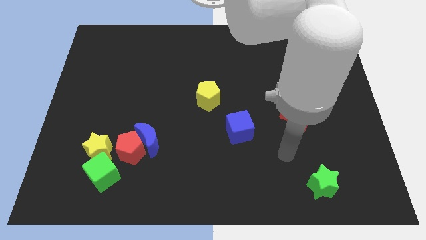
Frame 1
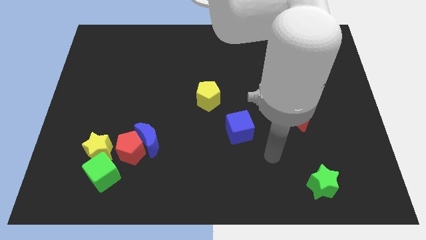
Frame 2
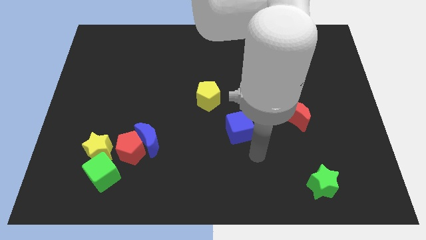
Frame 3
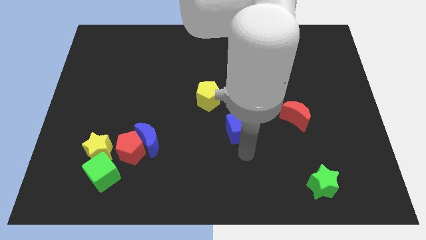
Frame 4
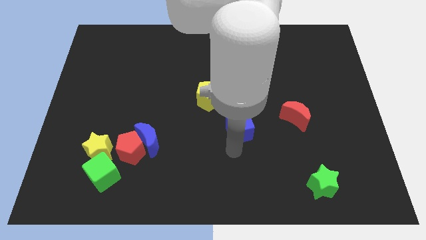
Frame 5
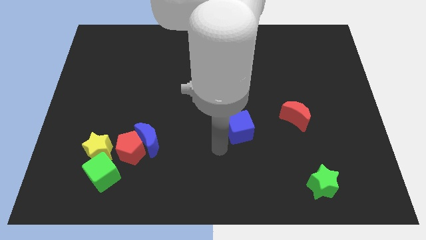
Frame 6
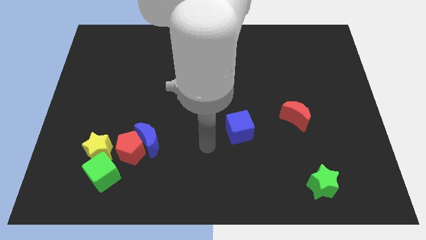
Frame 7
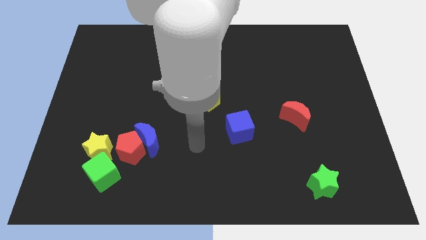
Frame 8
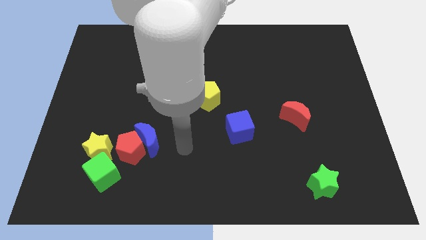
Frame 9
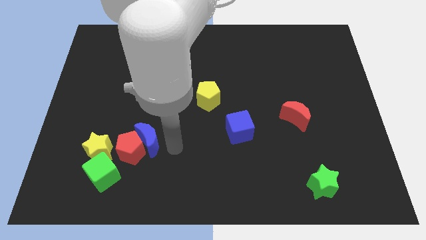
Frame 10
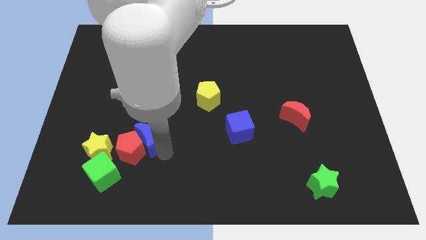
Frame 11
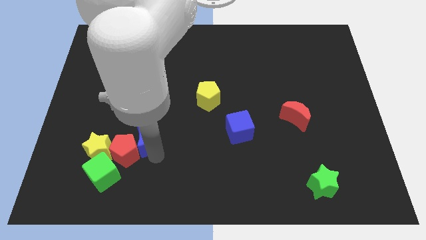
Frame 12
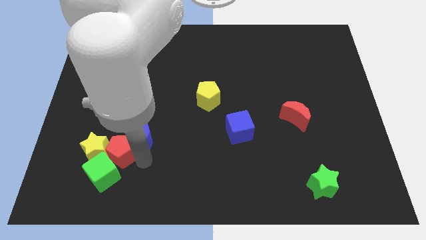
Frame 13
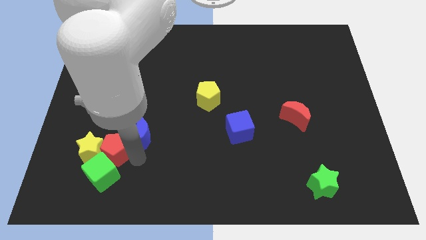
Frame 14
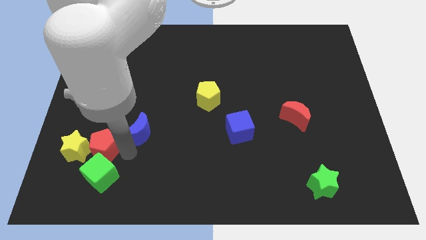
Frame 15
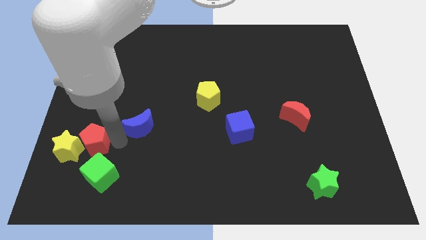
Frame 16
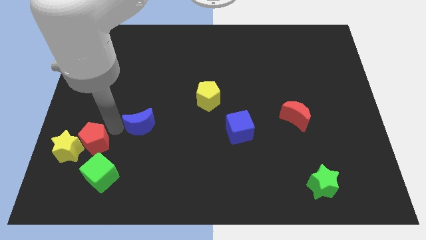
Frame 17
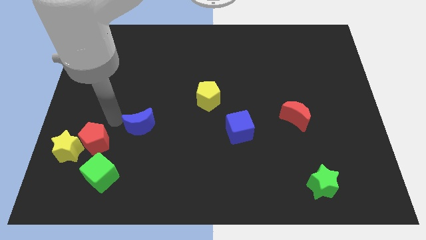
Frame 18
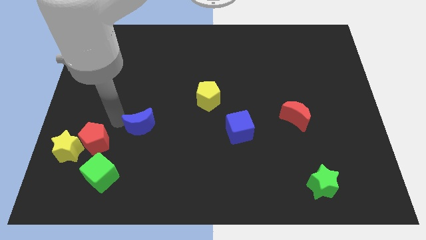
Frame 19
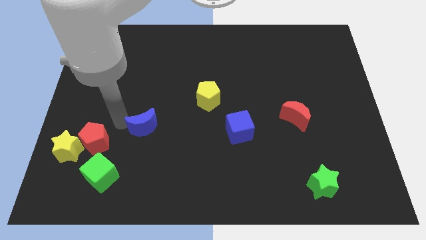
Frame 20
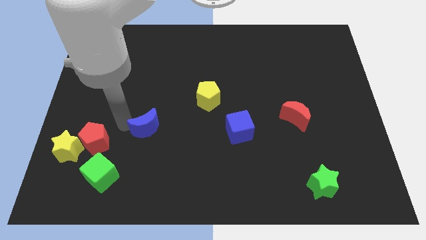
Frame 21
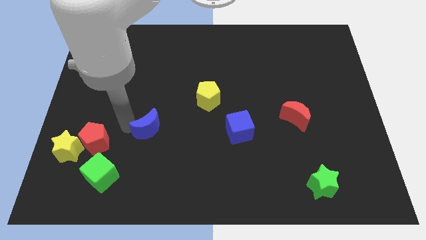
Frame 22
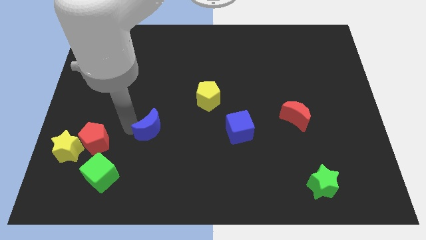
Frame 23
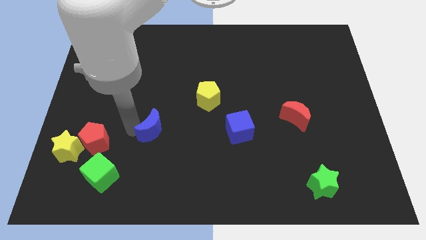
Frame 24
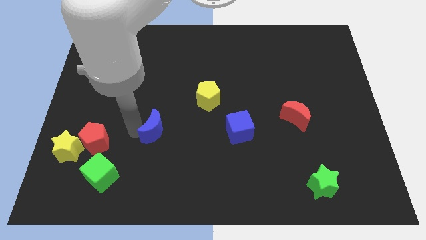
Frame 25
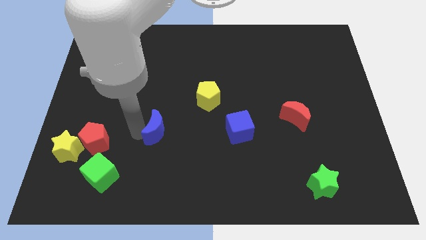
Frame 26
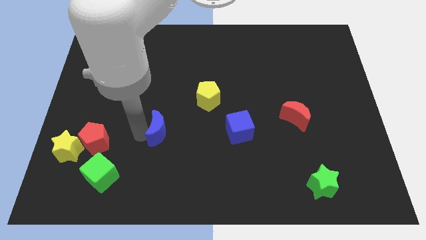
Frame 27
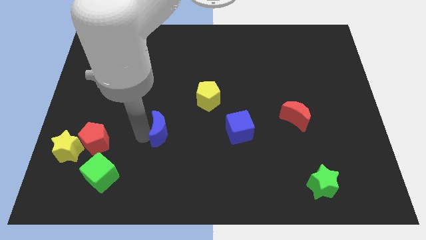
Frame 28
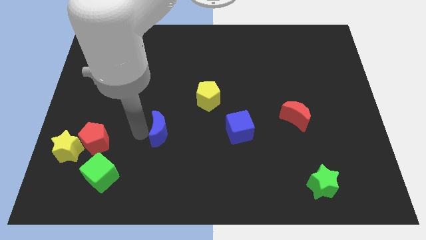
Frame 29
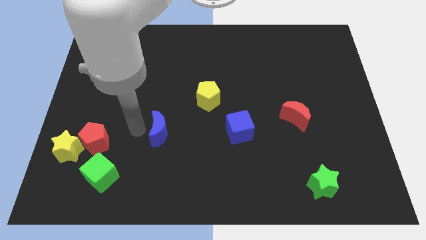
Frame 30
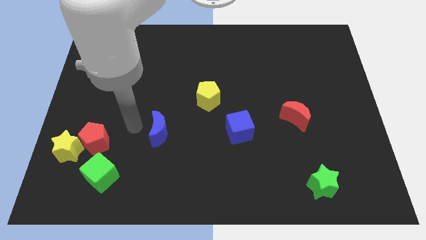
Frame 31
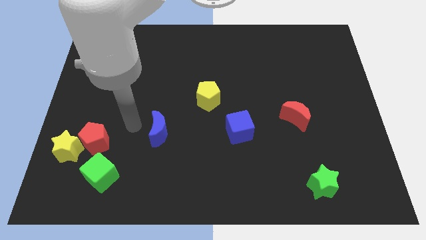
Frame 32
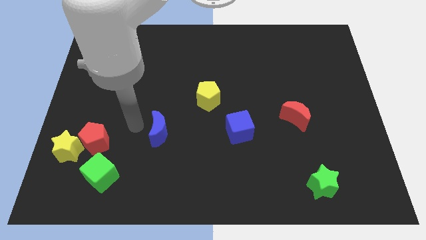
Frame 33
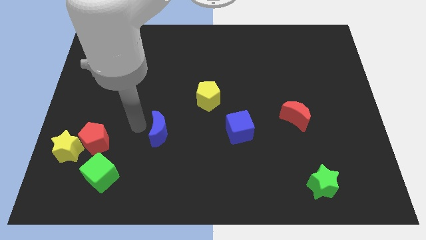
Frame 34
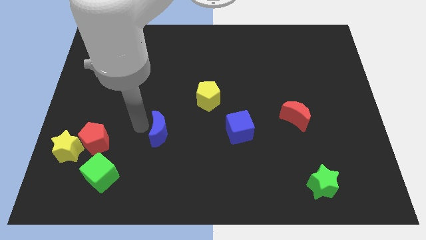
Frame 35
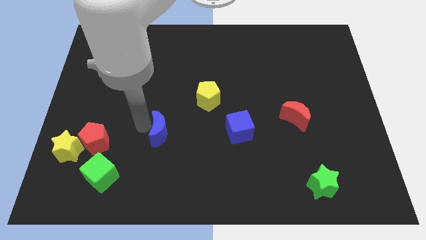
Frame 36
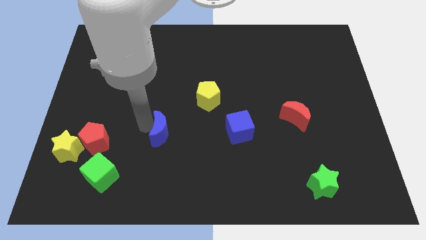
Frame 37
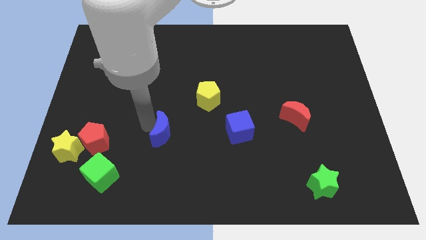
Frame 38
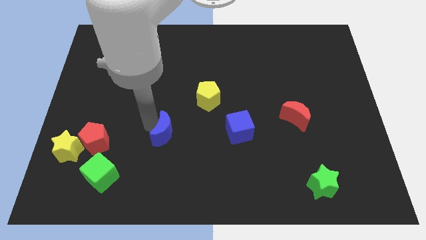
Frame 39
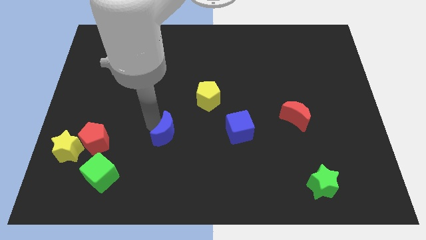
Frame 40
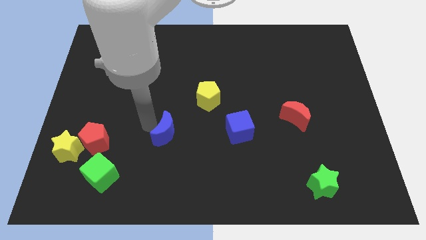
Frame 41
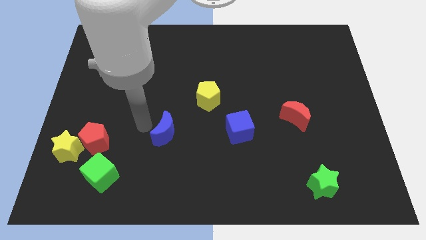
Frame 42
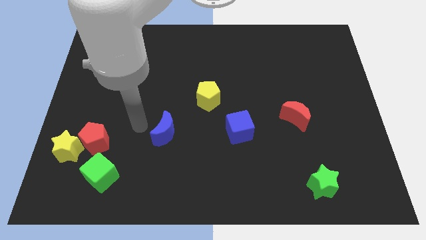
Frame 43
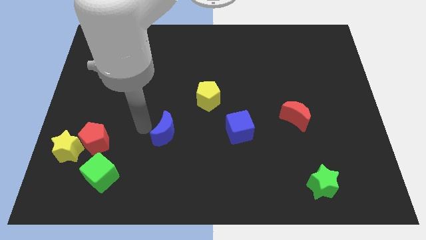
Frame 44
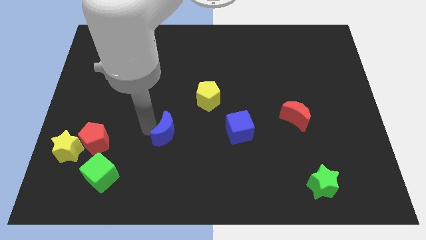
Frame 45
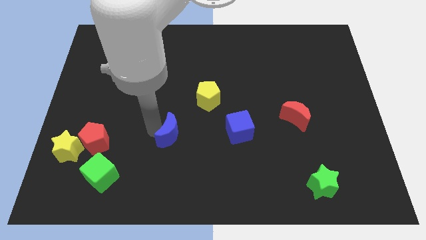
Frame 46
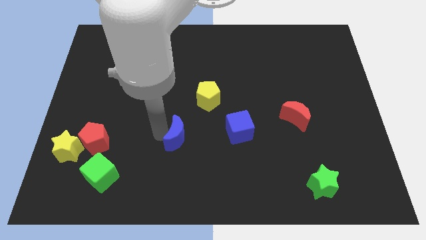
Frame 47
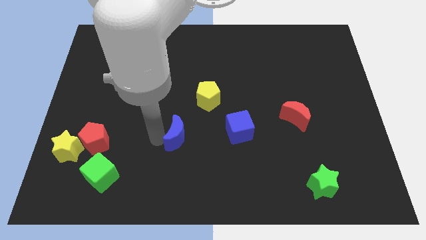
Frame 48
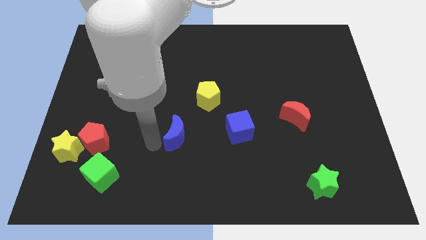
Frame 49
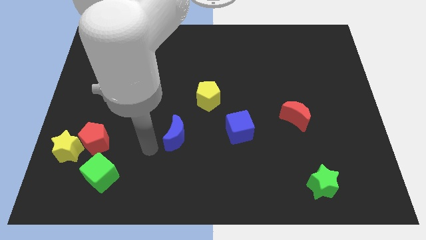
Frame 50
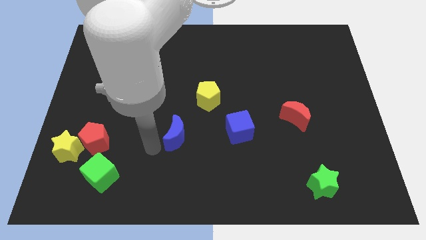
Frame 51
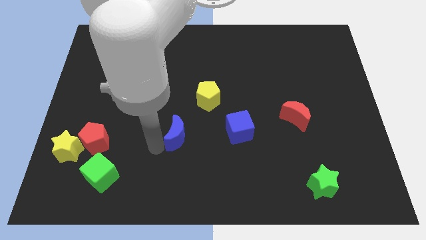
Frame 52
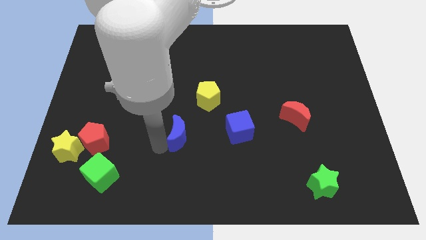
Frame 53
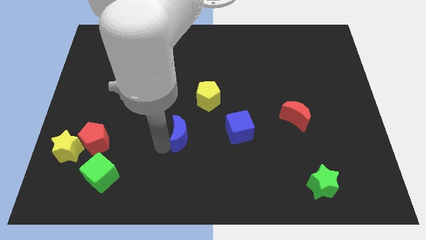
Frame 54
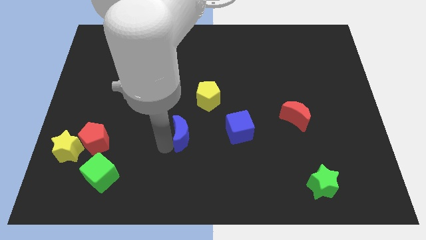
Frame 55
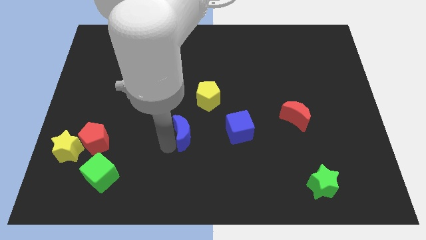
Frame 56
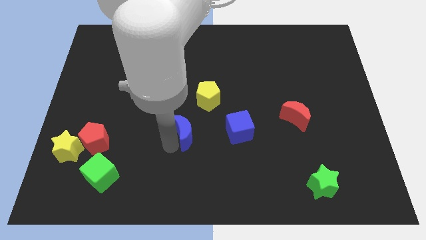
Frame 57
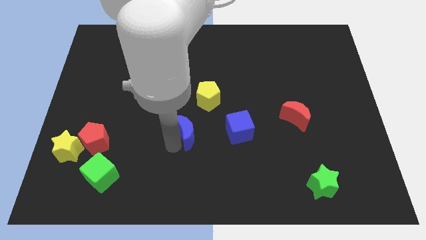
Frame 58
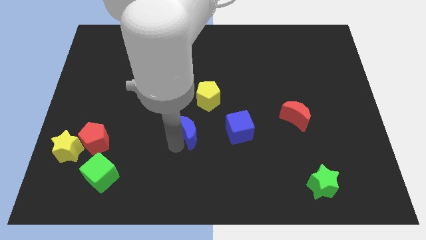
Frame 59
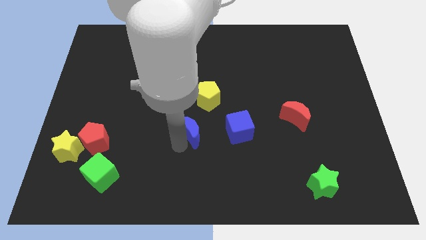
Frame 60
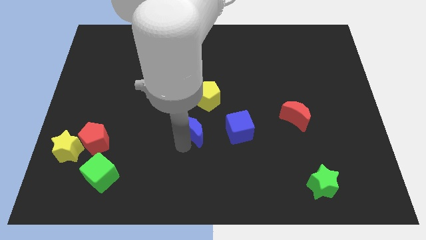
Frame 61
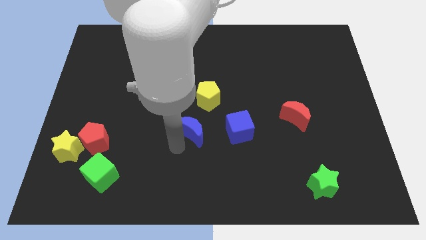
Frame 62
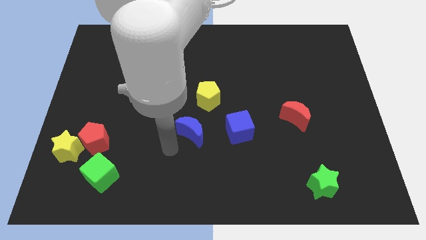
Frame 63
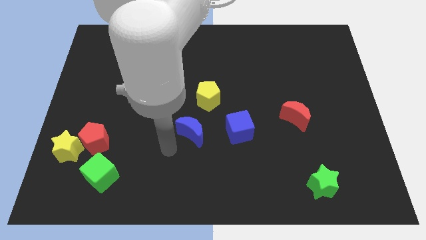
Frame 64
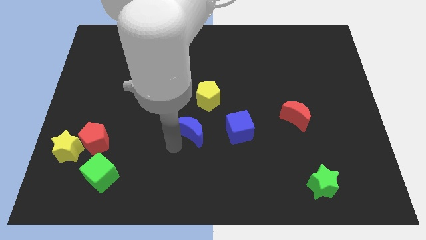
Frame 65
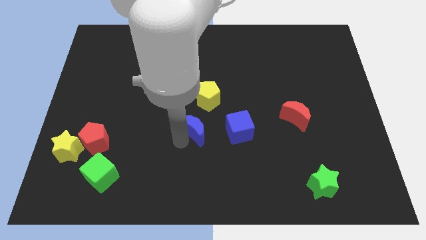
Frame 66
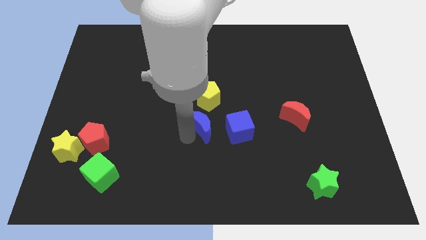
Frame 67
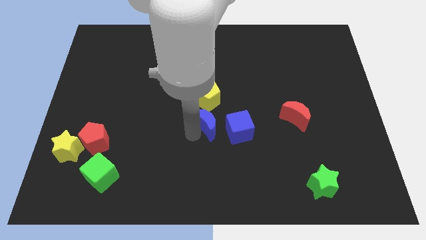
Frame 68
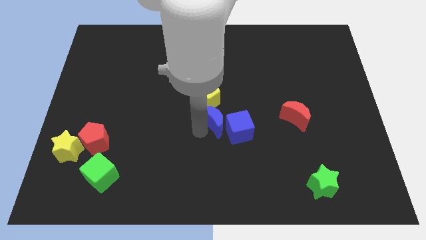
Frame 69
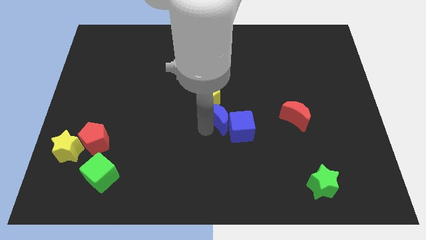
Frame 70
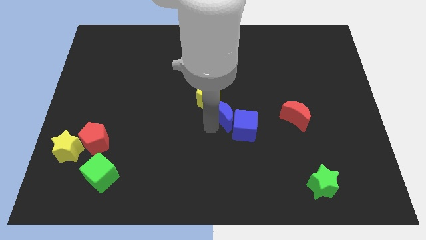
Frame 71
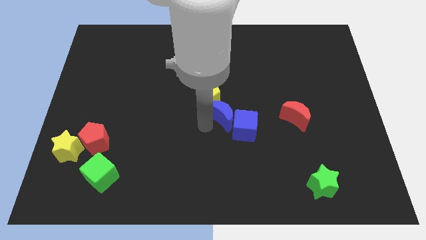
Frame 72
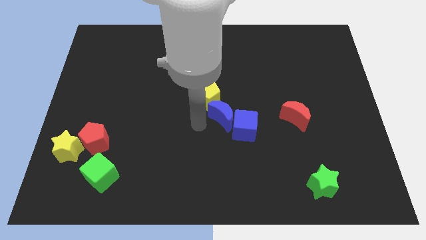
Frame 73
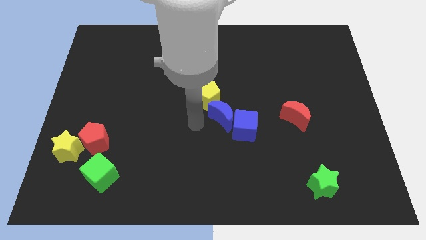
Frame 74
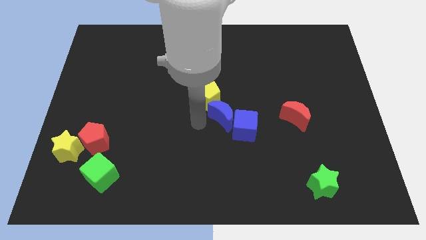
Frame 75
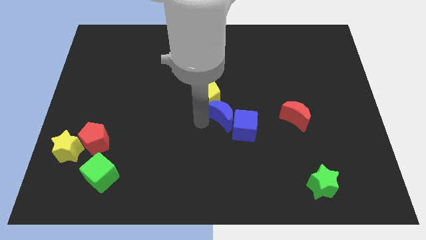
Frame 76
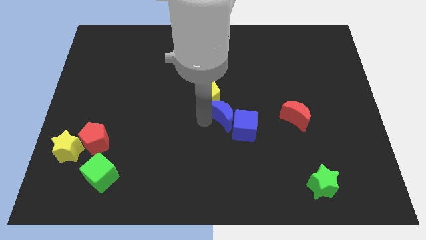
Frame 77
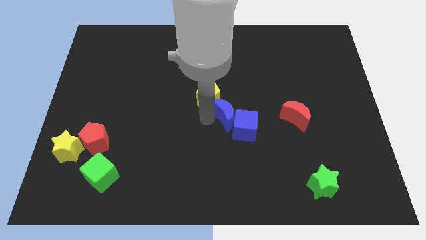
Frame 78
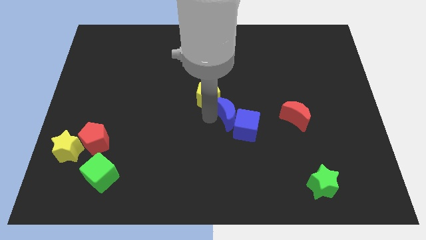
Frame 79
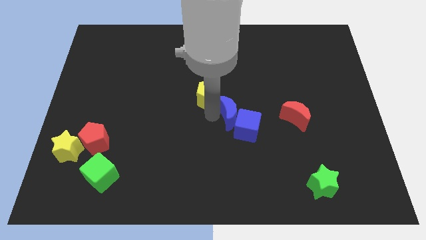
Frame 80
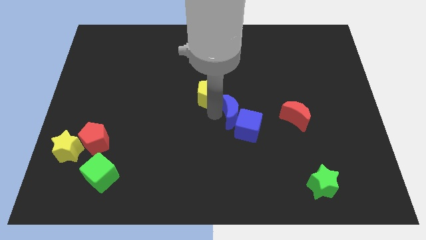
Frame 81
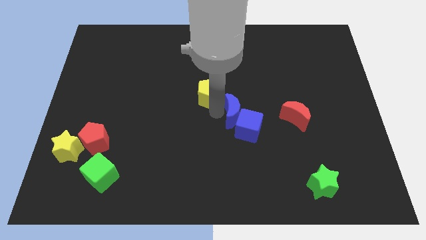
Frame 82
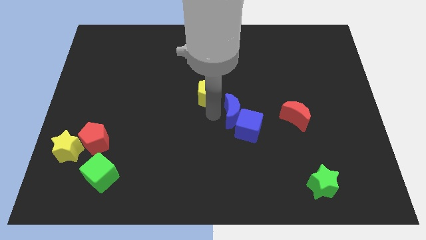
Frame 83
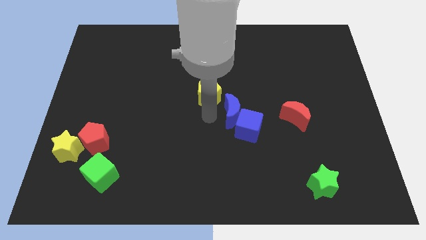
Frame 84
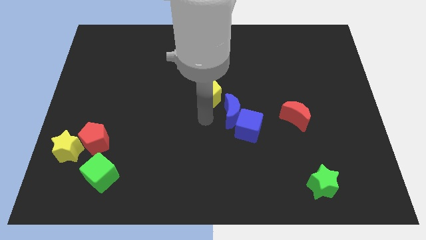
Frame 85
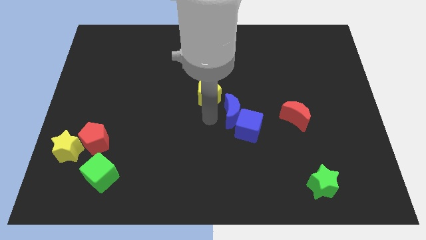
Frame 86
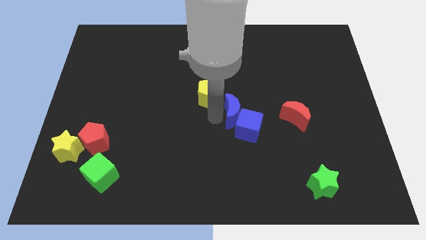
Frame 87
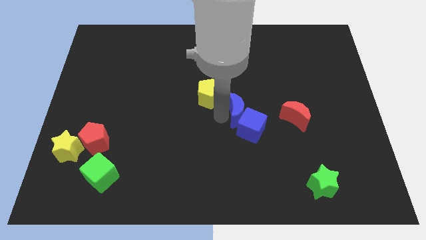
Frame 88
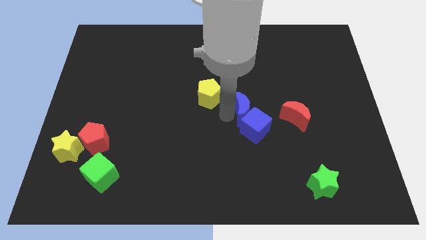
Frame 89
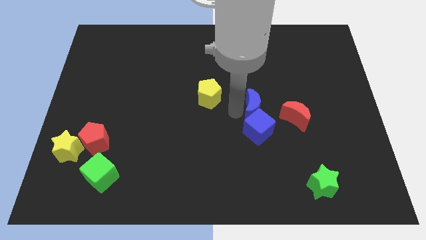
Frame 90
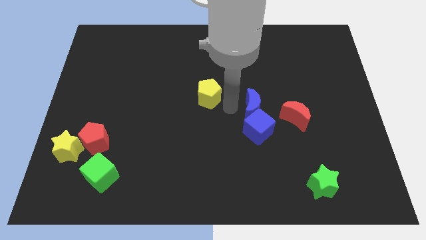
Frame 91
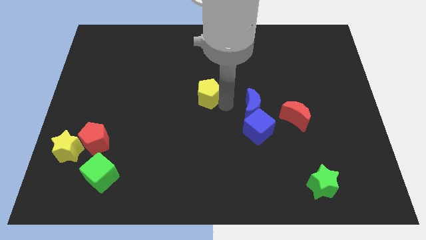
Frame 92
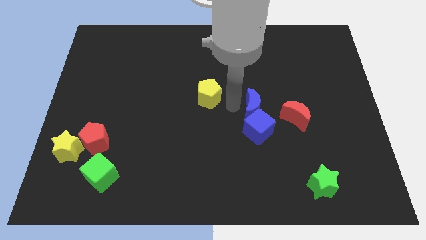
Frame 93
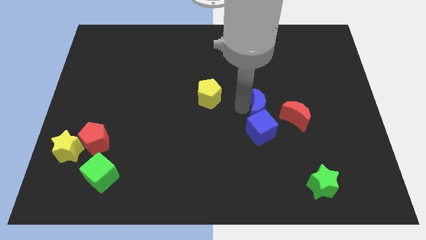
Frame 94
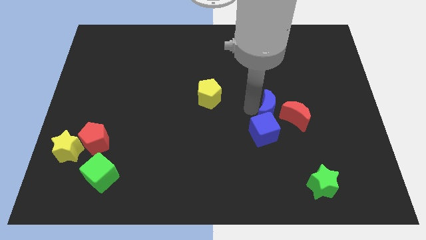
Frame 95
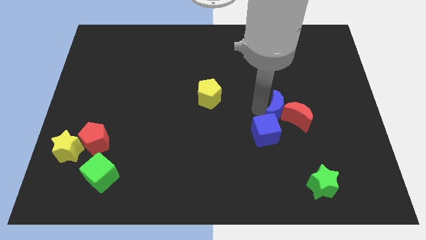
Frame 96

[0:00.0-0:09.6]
put the blue moon towards the red moon
